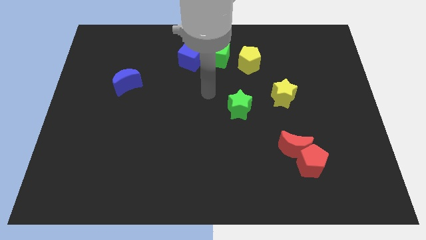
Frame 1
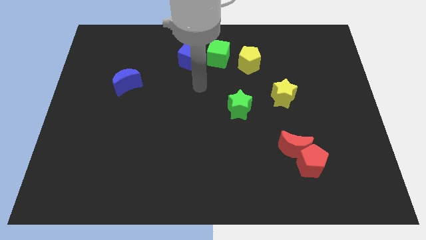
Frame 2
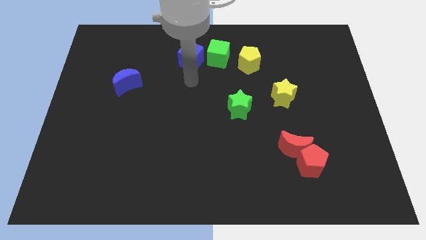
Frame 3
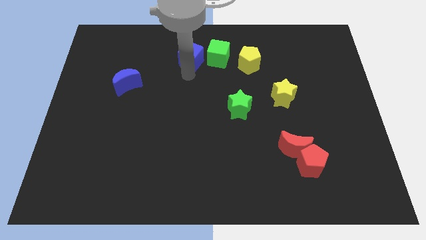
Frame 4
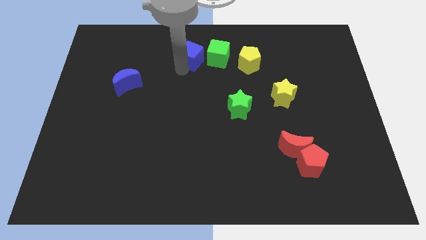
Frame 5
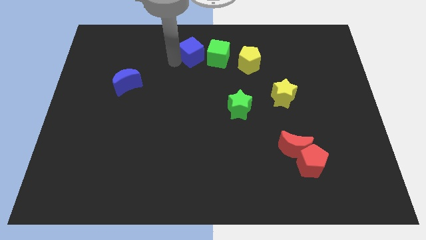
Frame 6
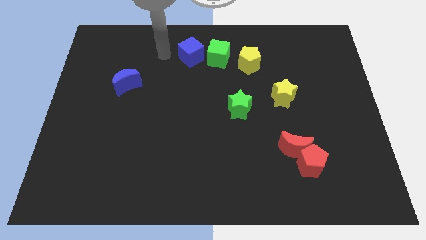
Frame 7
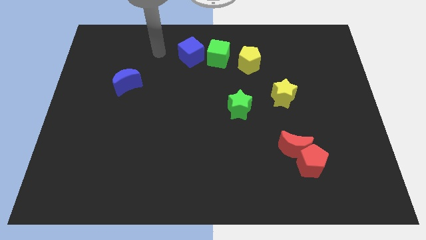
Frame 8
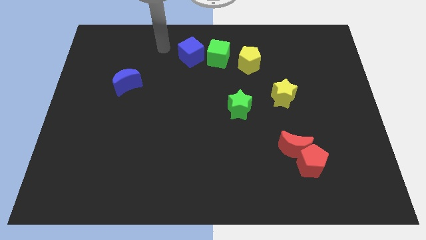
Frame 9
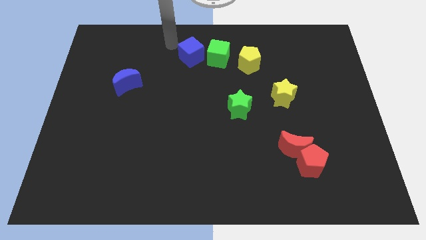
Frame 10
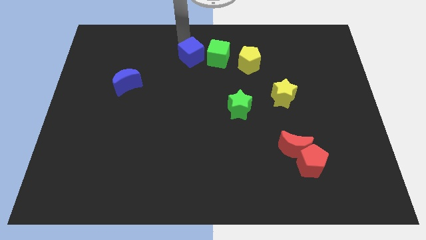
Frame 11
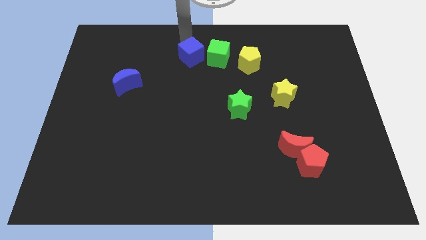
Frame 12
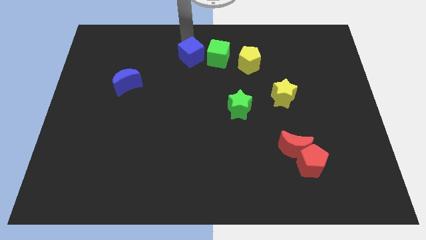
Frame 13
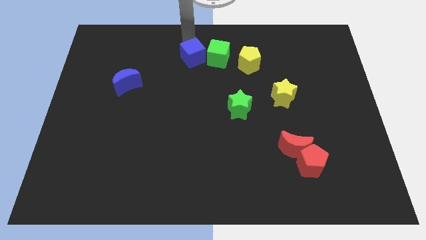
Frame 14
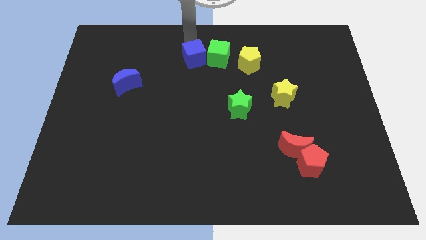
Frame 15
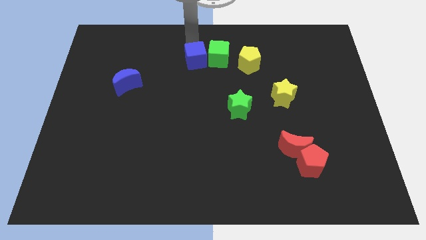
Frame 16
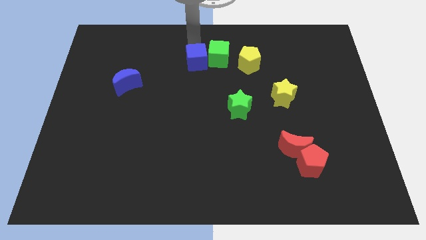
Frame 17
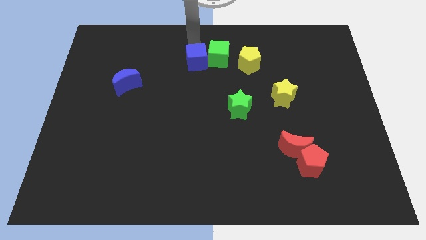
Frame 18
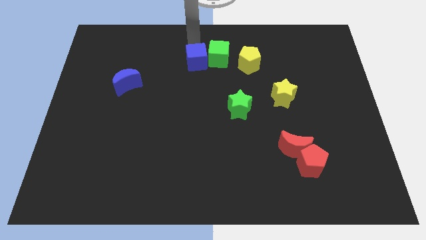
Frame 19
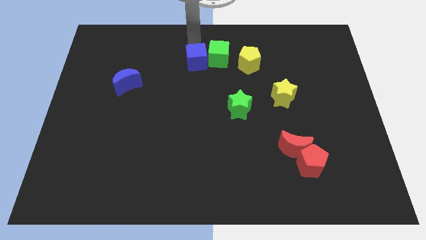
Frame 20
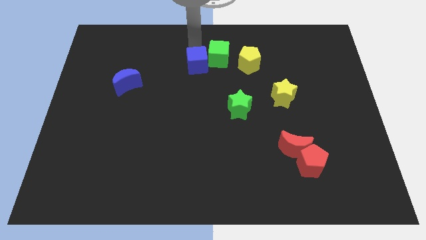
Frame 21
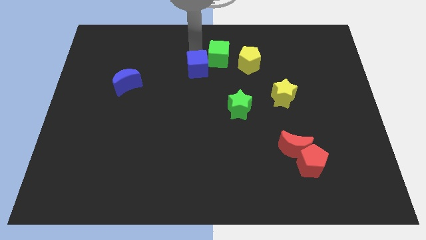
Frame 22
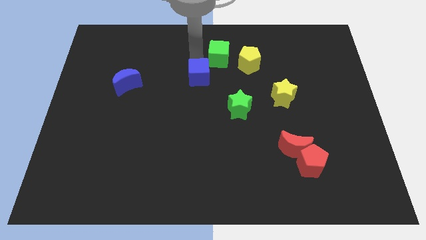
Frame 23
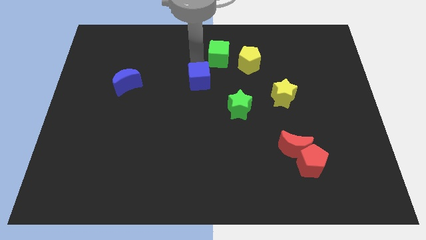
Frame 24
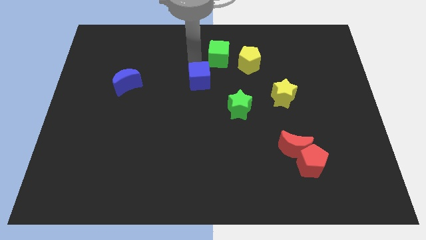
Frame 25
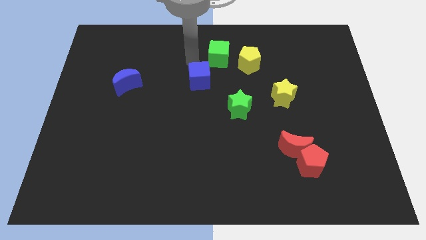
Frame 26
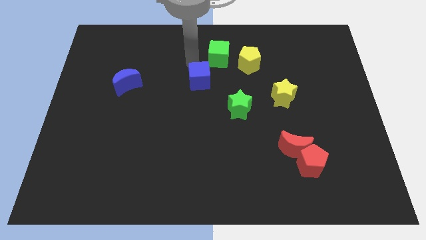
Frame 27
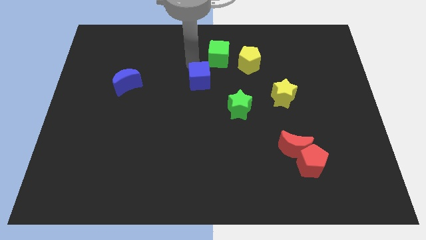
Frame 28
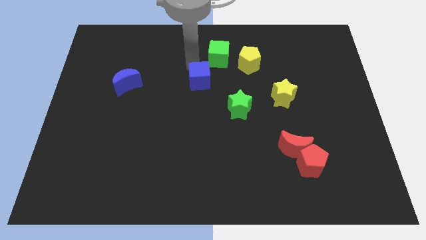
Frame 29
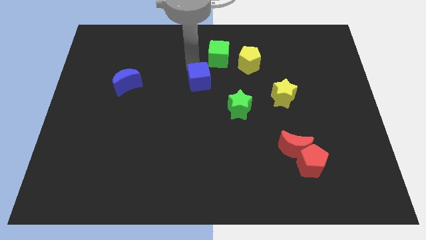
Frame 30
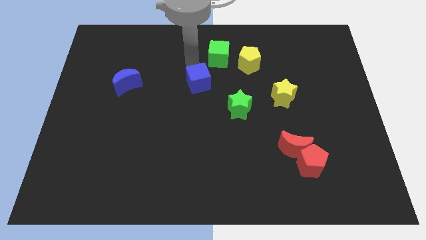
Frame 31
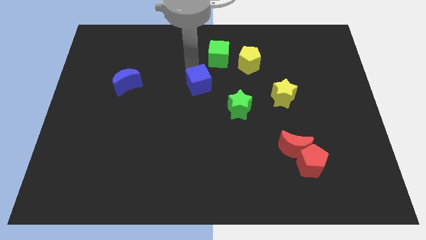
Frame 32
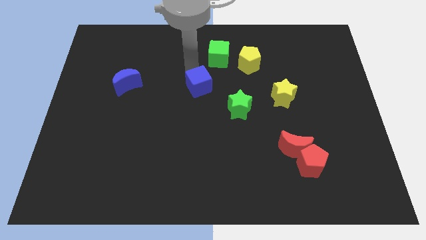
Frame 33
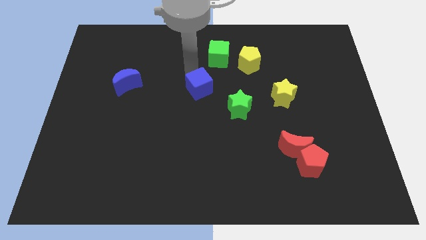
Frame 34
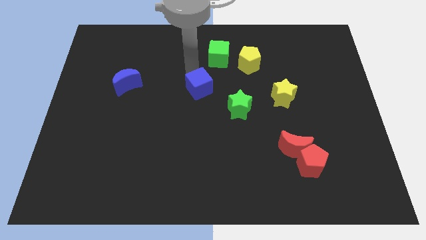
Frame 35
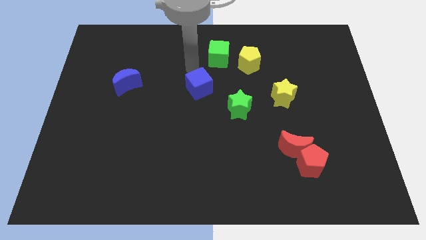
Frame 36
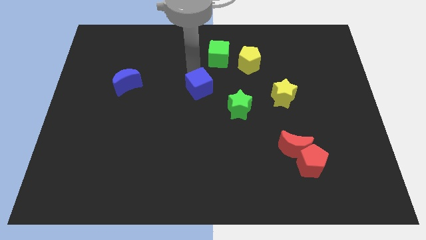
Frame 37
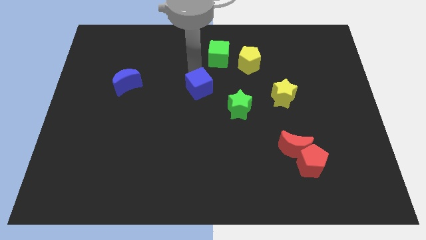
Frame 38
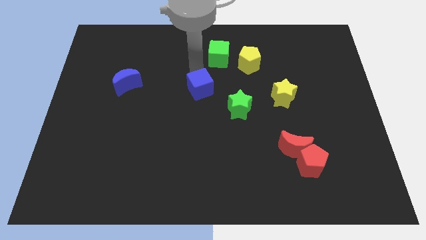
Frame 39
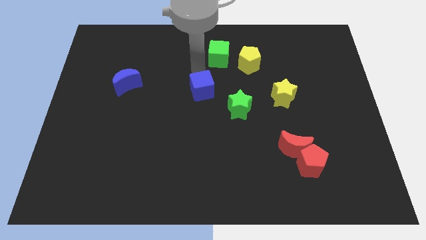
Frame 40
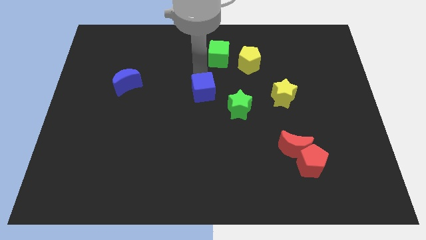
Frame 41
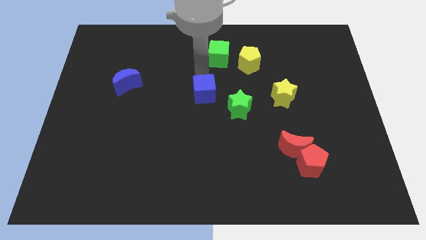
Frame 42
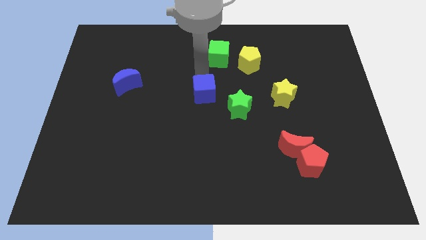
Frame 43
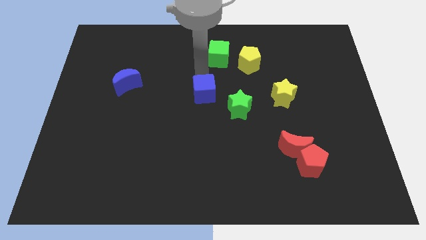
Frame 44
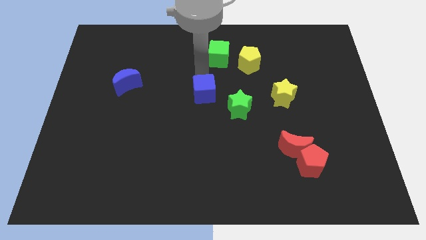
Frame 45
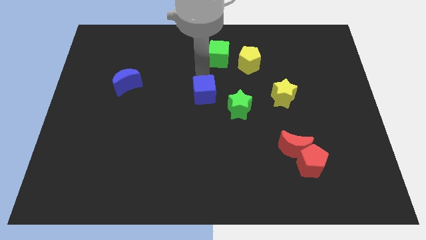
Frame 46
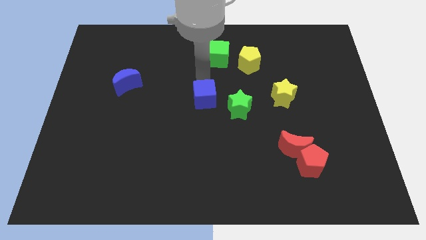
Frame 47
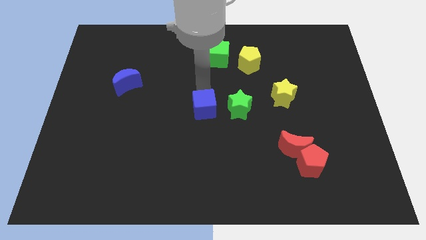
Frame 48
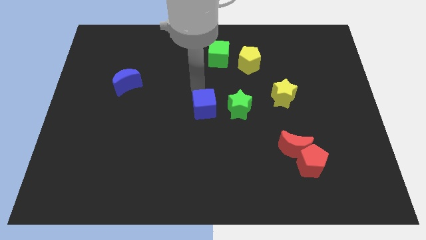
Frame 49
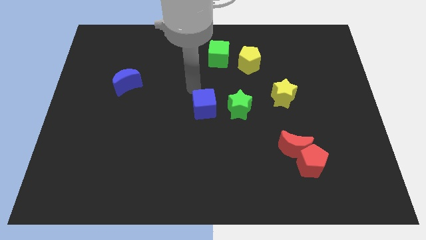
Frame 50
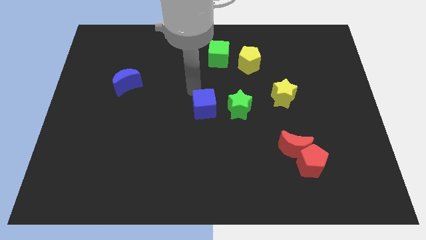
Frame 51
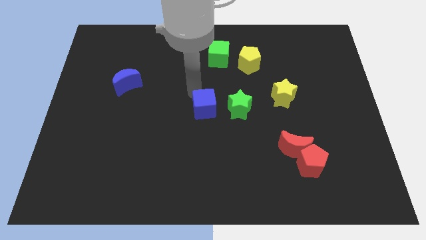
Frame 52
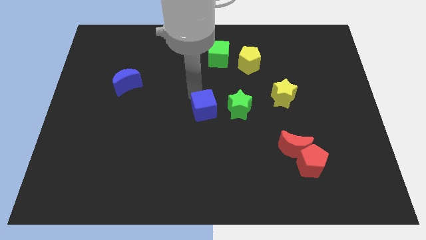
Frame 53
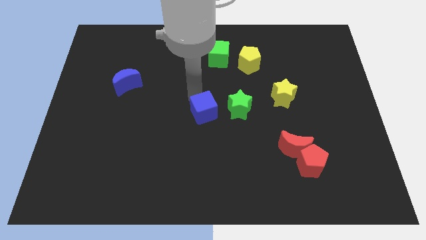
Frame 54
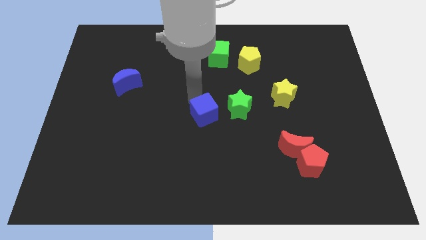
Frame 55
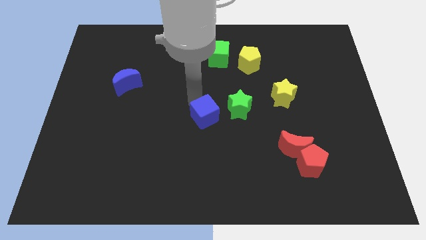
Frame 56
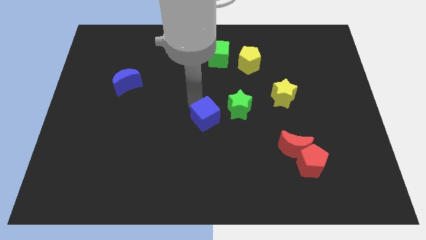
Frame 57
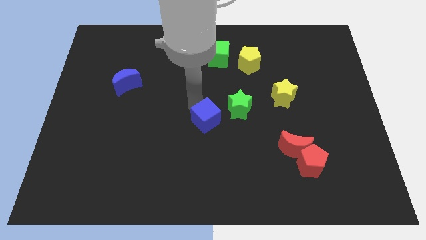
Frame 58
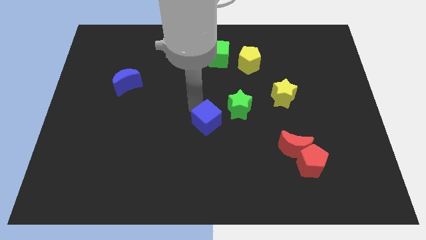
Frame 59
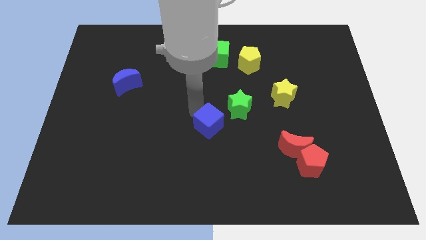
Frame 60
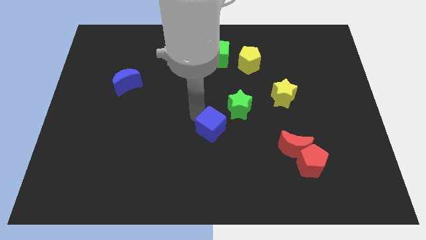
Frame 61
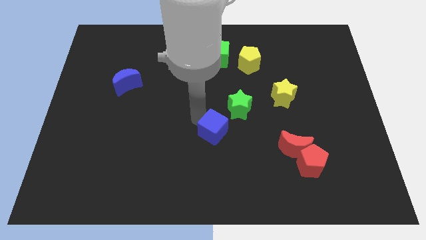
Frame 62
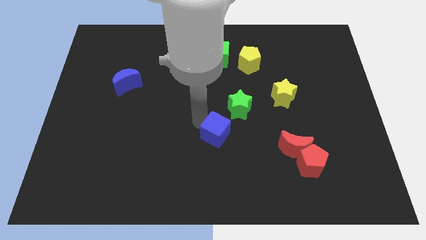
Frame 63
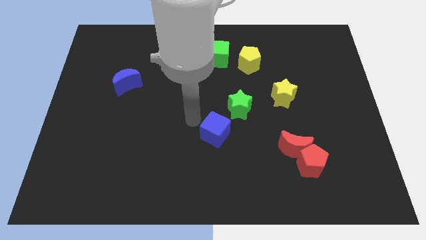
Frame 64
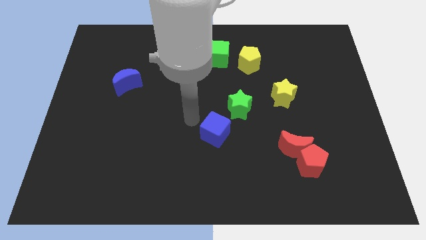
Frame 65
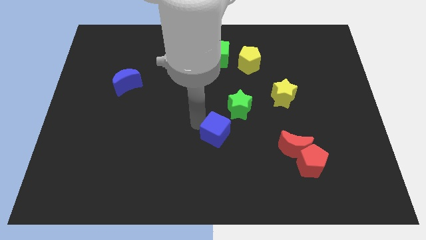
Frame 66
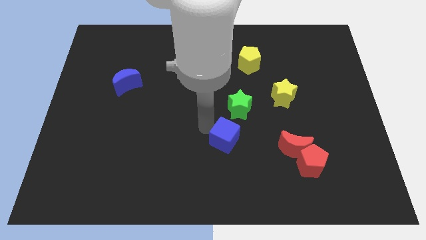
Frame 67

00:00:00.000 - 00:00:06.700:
slide the blue cube to the left of the red moon
